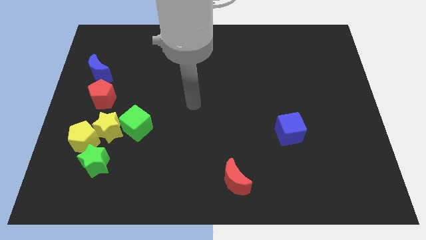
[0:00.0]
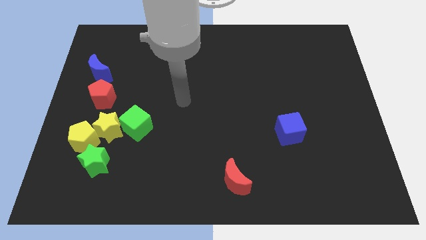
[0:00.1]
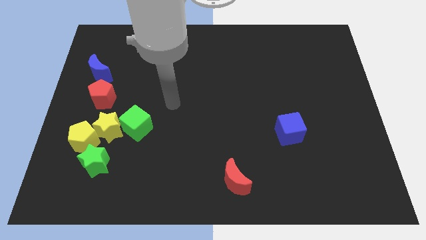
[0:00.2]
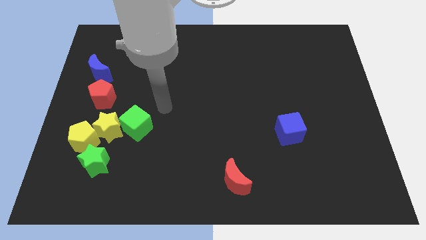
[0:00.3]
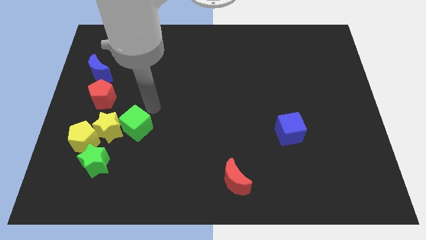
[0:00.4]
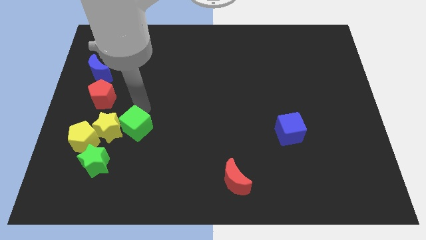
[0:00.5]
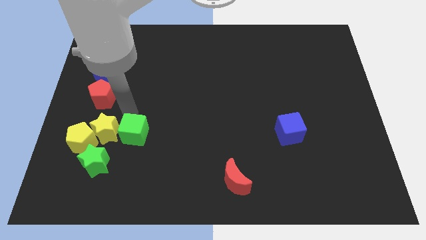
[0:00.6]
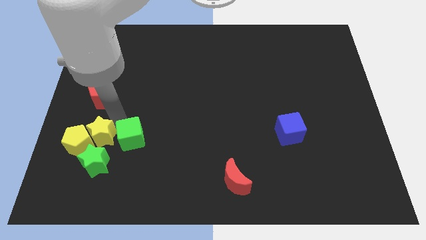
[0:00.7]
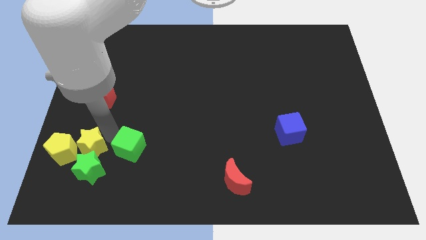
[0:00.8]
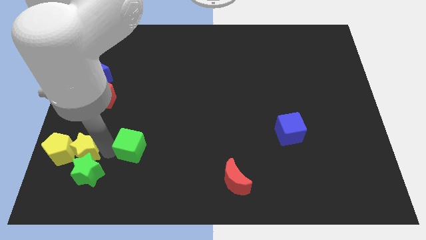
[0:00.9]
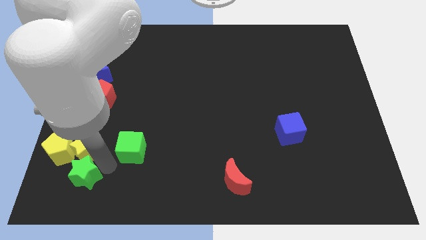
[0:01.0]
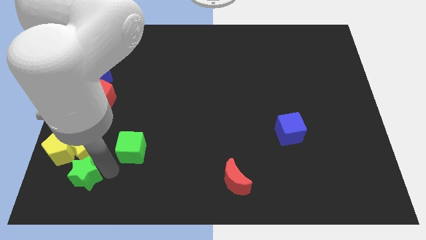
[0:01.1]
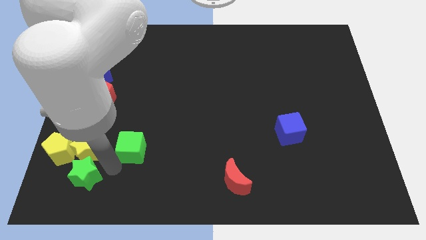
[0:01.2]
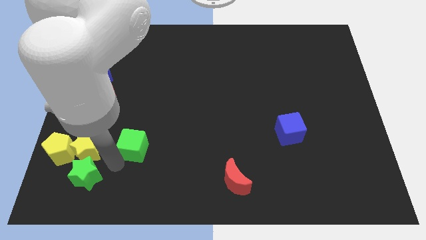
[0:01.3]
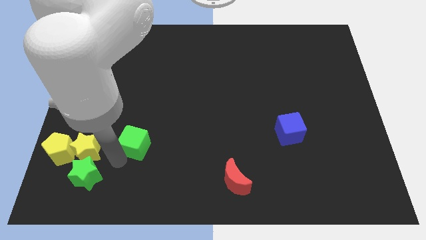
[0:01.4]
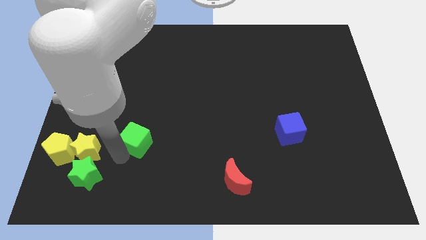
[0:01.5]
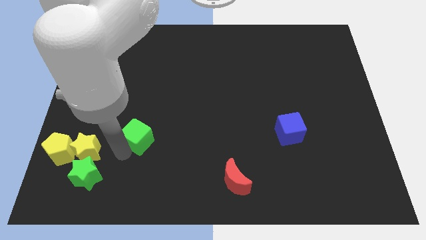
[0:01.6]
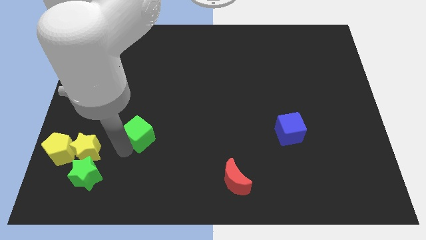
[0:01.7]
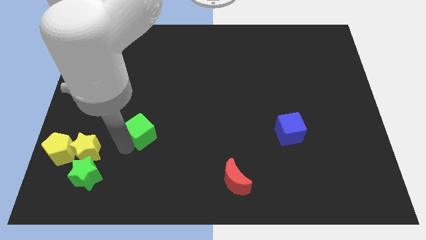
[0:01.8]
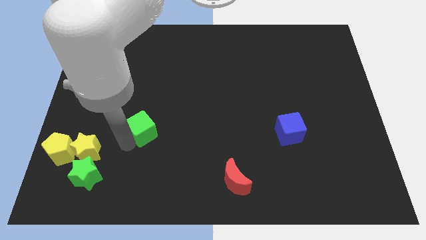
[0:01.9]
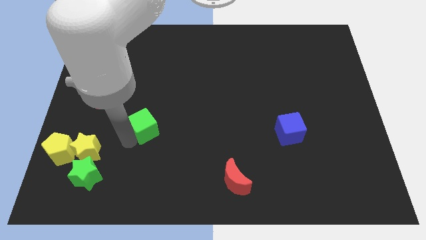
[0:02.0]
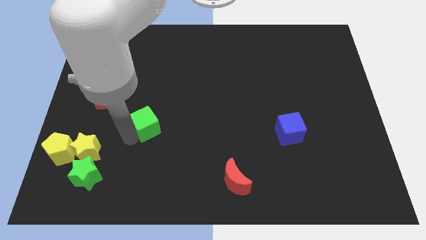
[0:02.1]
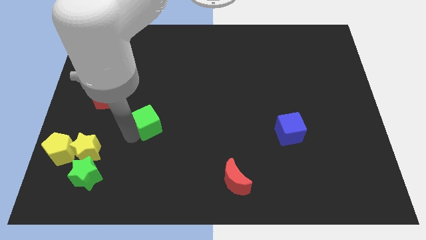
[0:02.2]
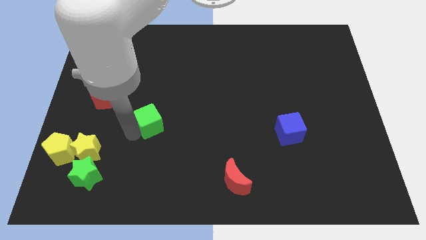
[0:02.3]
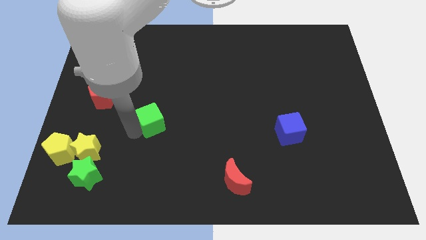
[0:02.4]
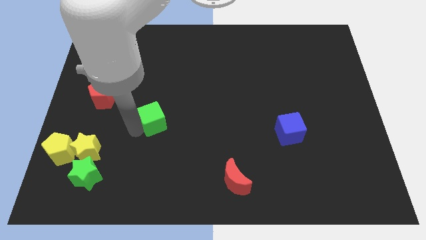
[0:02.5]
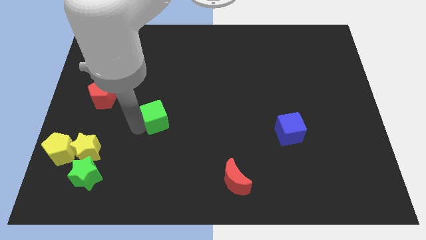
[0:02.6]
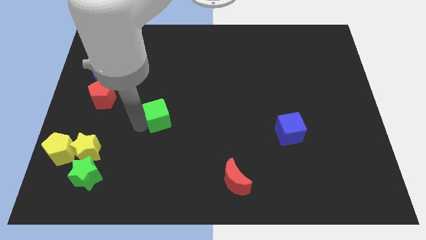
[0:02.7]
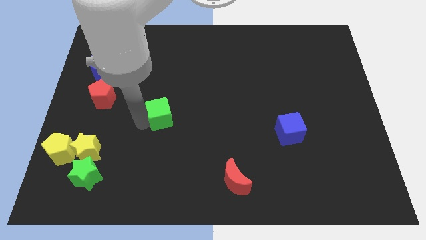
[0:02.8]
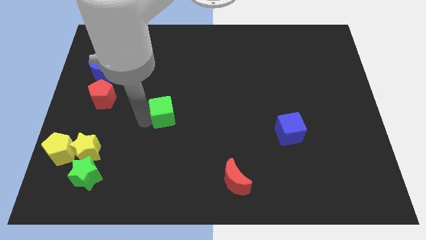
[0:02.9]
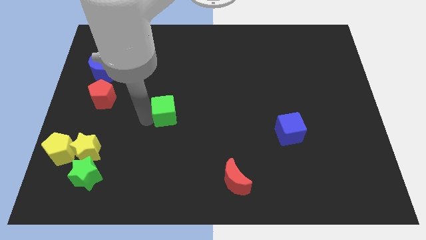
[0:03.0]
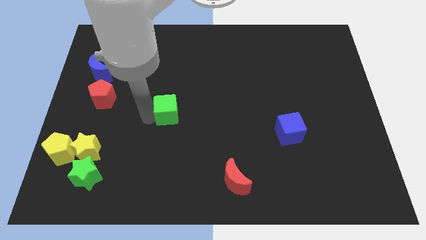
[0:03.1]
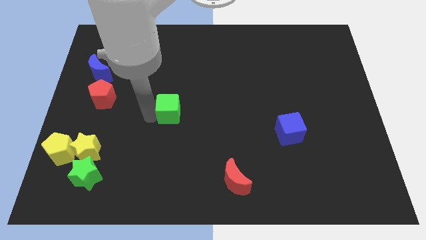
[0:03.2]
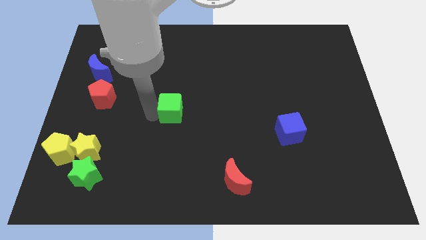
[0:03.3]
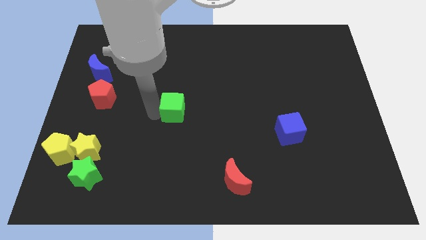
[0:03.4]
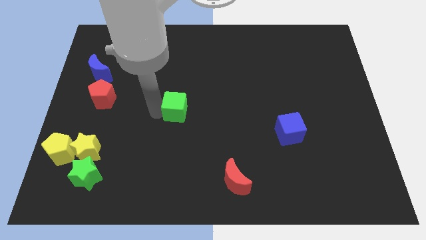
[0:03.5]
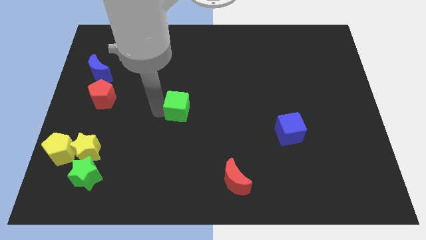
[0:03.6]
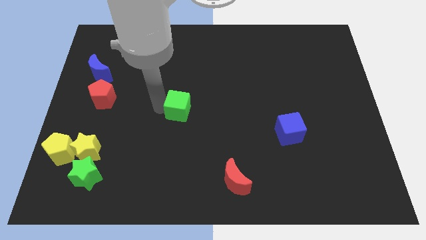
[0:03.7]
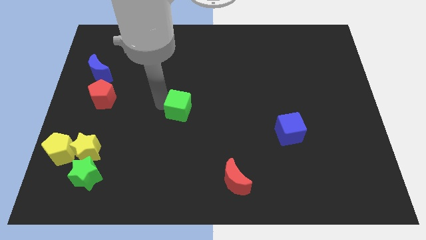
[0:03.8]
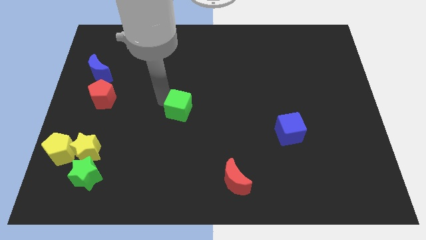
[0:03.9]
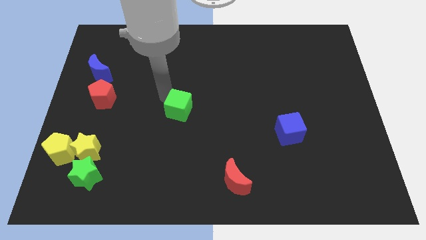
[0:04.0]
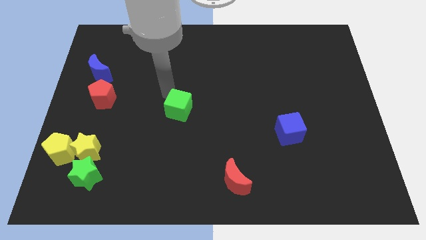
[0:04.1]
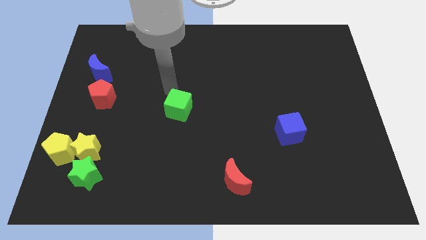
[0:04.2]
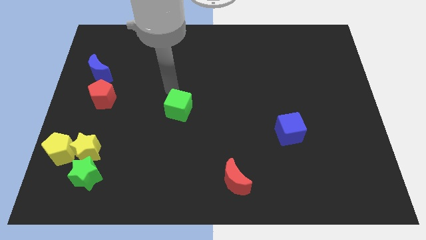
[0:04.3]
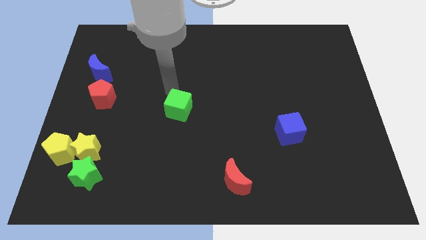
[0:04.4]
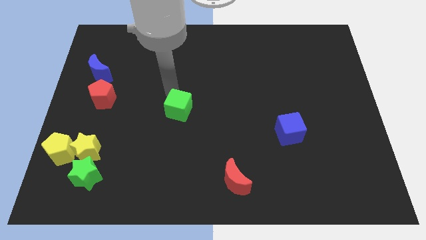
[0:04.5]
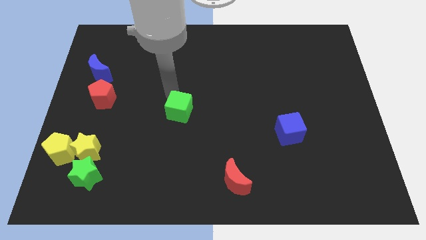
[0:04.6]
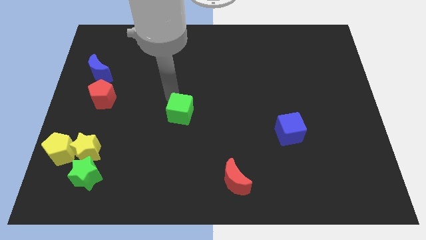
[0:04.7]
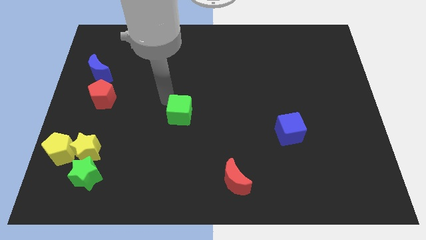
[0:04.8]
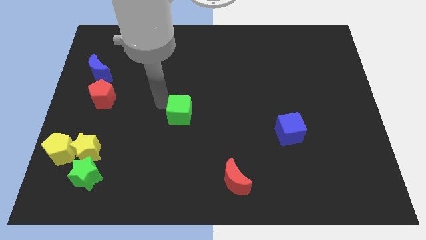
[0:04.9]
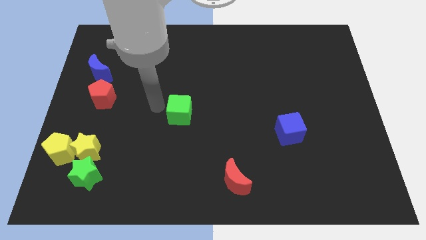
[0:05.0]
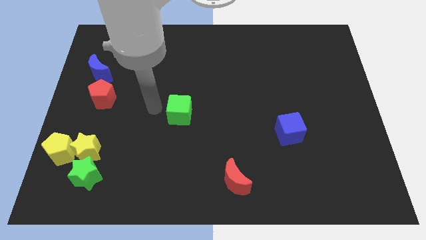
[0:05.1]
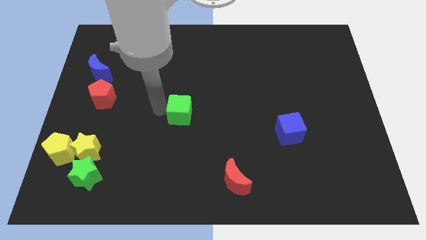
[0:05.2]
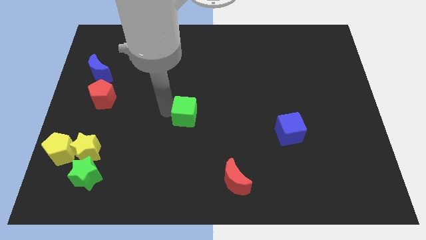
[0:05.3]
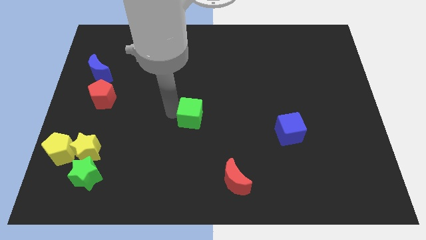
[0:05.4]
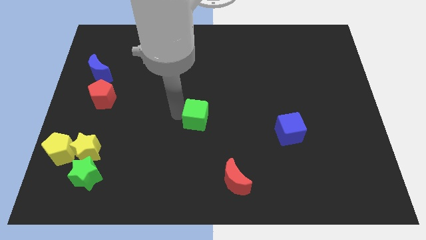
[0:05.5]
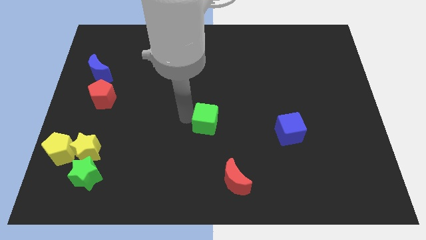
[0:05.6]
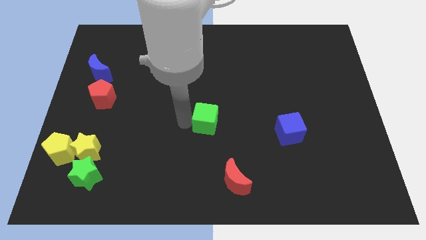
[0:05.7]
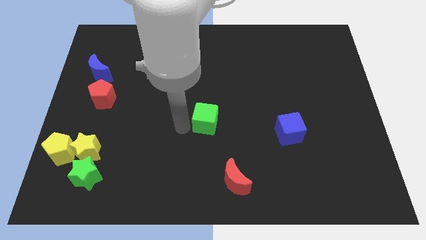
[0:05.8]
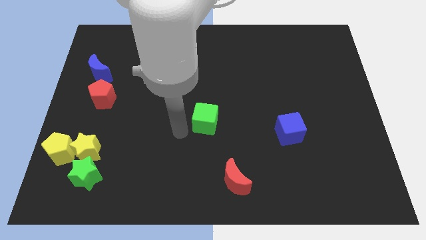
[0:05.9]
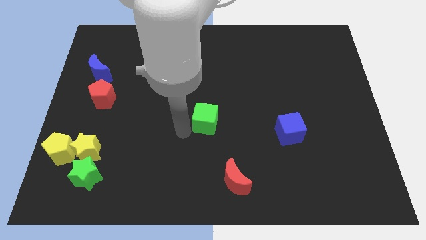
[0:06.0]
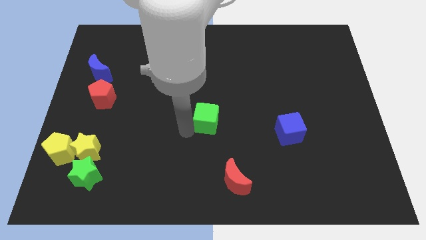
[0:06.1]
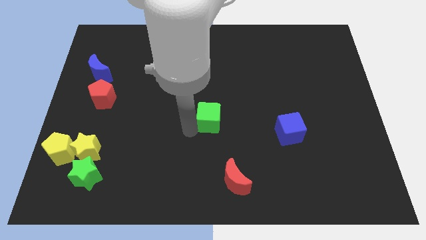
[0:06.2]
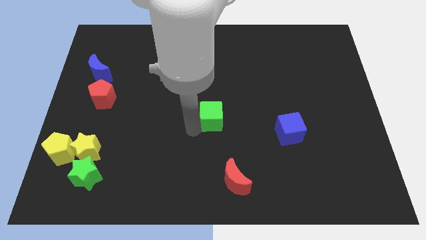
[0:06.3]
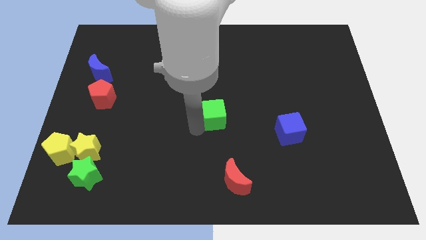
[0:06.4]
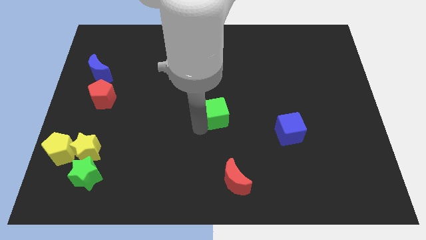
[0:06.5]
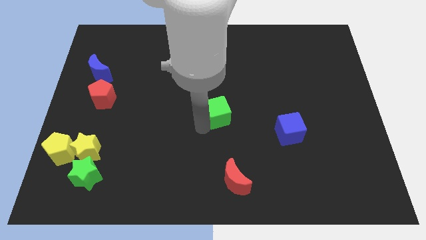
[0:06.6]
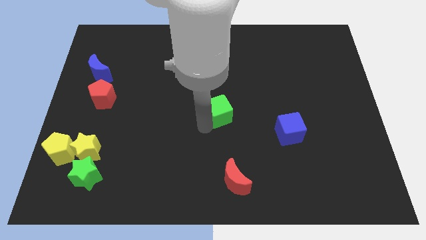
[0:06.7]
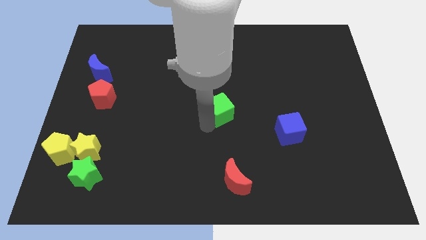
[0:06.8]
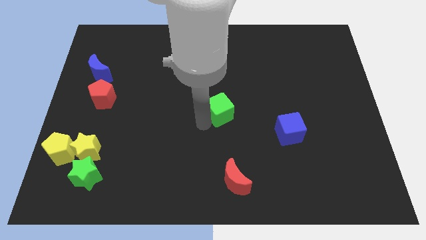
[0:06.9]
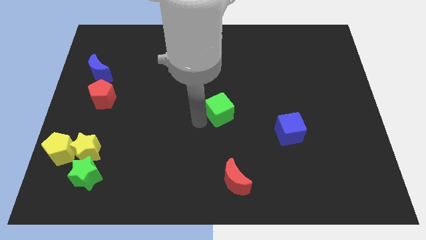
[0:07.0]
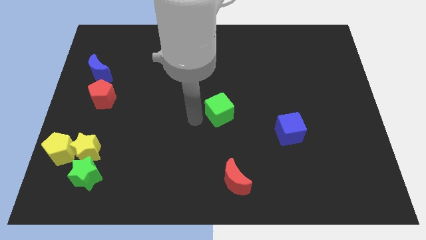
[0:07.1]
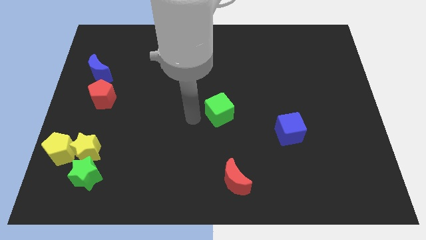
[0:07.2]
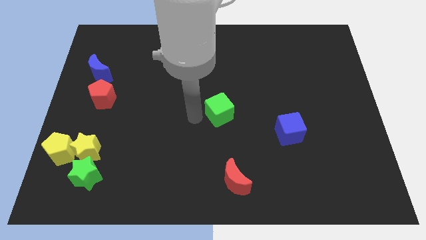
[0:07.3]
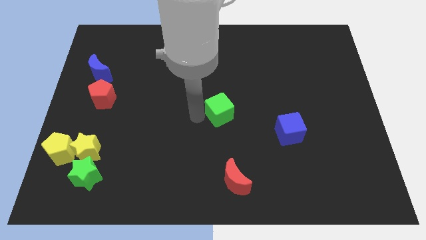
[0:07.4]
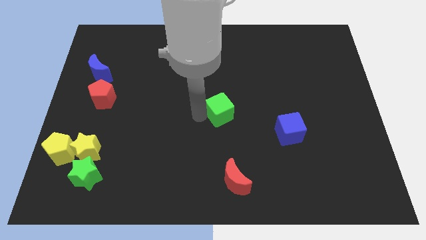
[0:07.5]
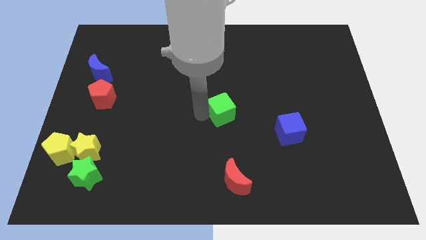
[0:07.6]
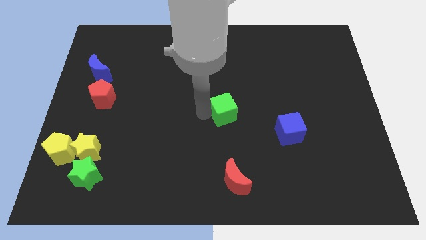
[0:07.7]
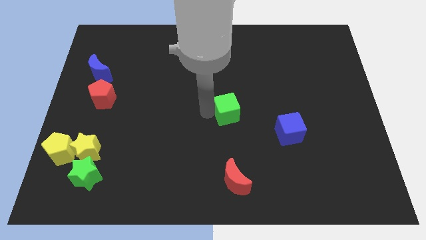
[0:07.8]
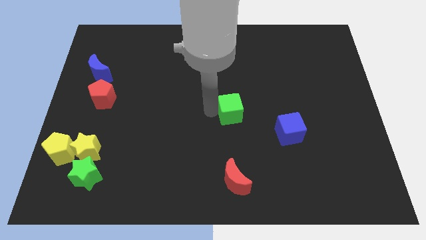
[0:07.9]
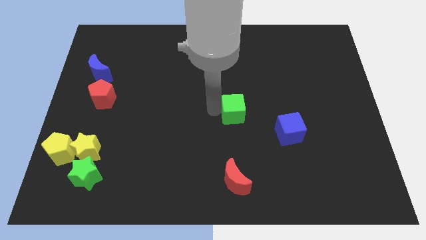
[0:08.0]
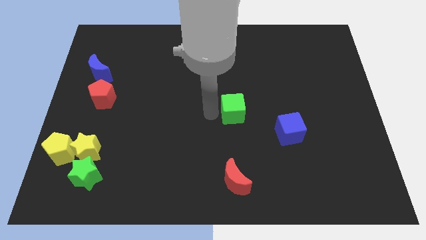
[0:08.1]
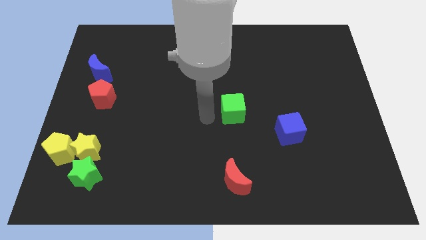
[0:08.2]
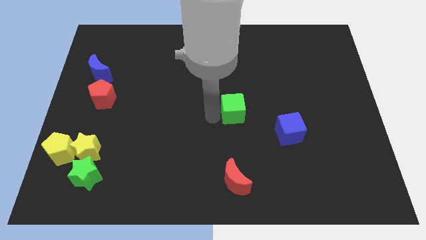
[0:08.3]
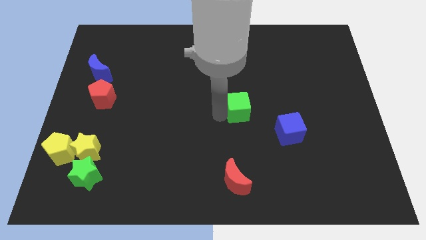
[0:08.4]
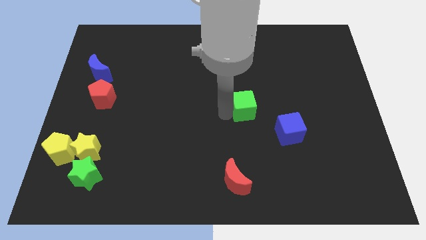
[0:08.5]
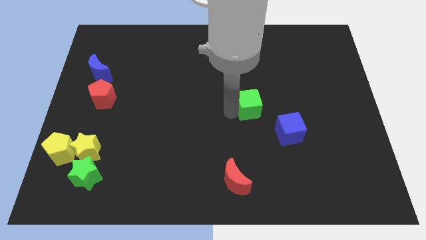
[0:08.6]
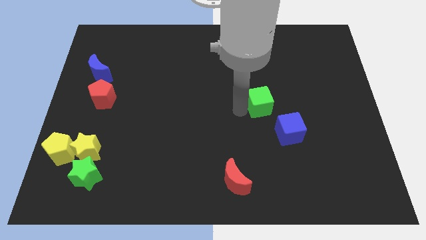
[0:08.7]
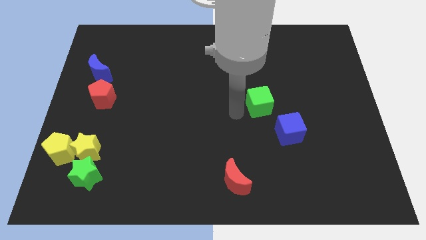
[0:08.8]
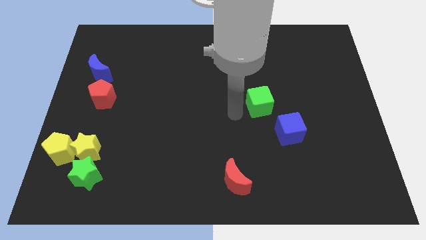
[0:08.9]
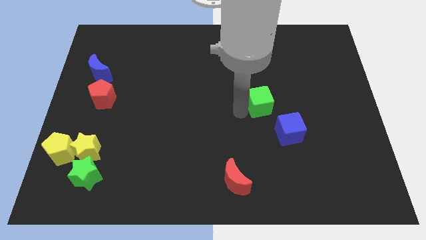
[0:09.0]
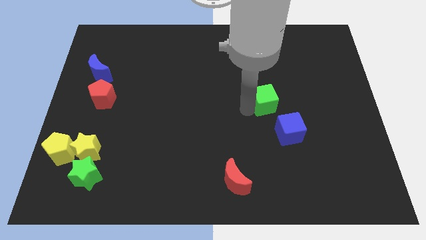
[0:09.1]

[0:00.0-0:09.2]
push the green cube to the top of the blue cube
